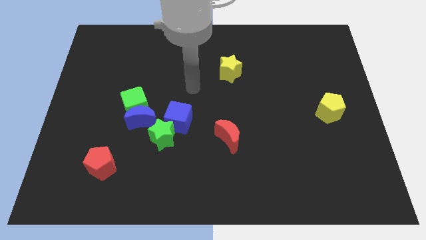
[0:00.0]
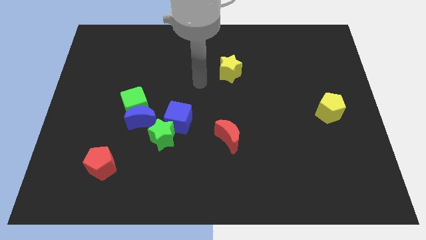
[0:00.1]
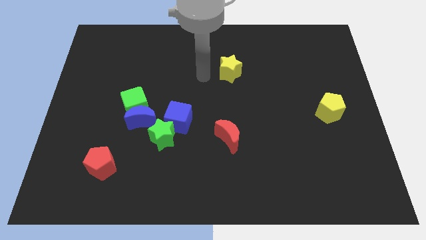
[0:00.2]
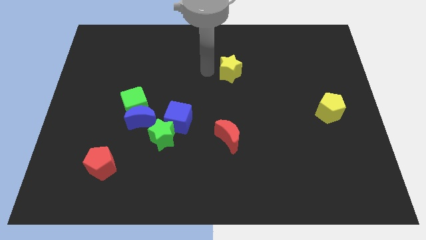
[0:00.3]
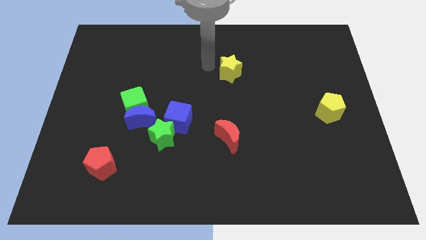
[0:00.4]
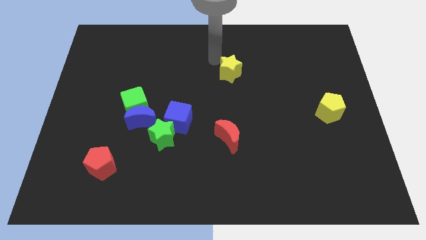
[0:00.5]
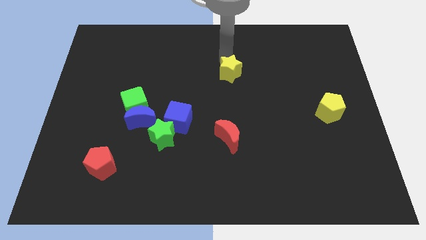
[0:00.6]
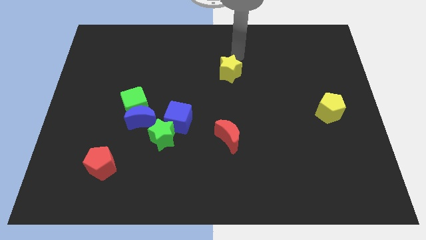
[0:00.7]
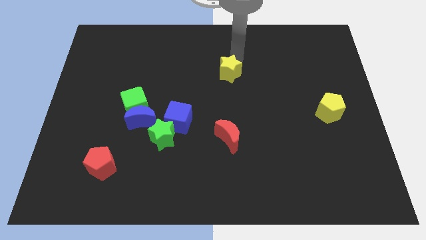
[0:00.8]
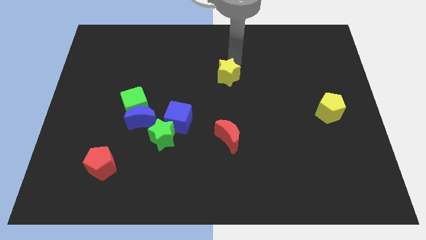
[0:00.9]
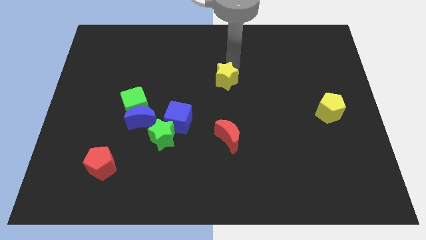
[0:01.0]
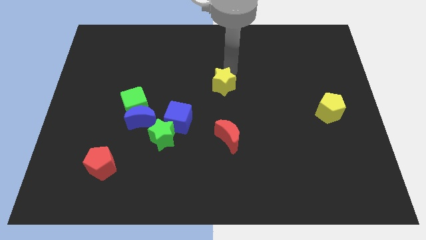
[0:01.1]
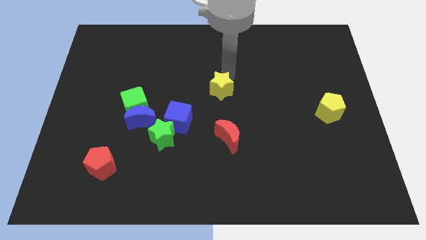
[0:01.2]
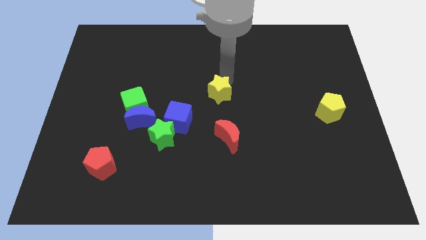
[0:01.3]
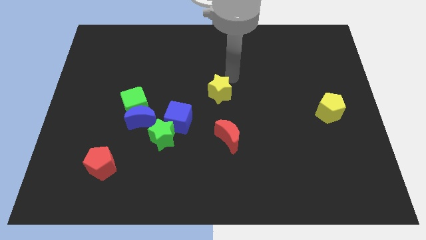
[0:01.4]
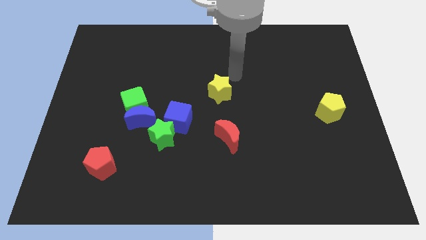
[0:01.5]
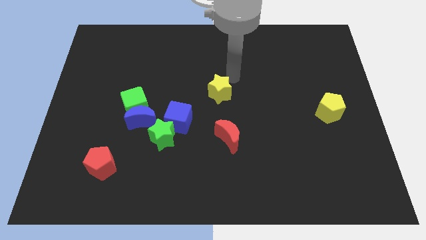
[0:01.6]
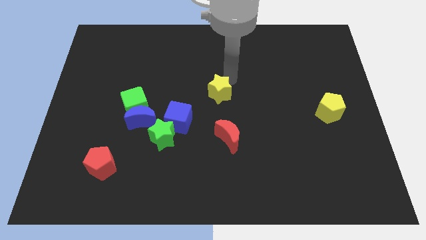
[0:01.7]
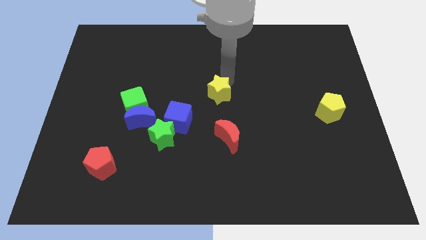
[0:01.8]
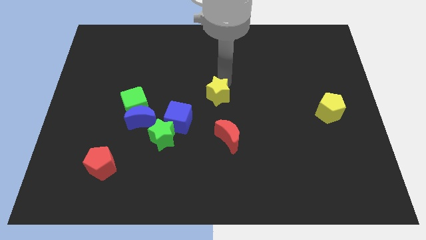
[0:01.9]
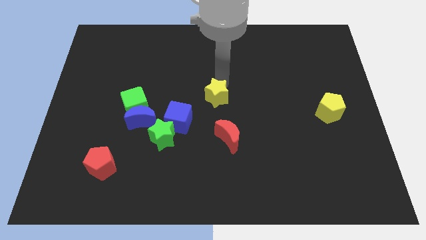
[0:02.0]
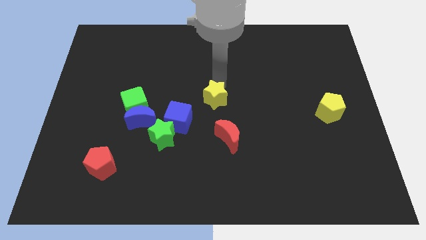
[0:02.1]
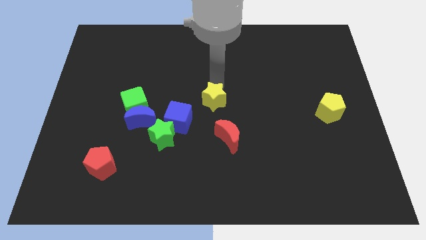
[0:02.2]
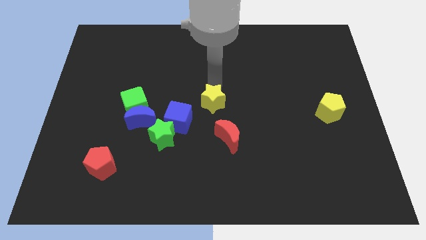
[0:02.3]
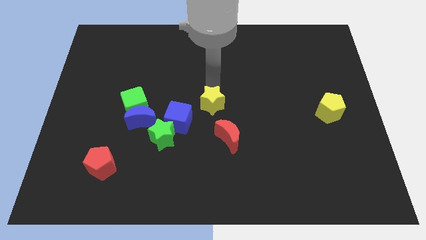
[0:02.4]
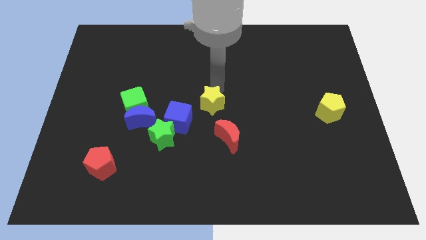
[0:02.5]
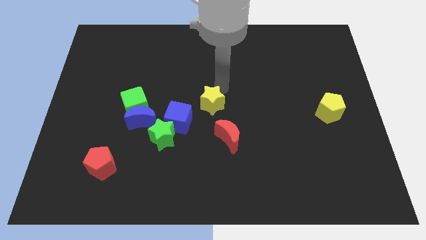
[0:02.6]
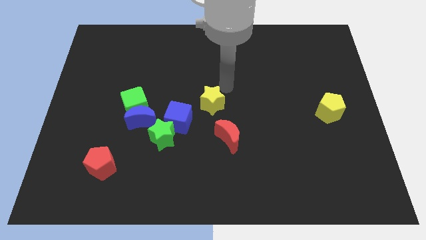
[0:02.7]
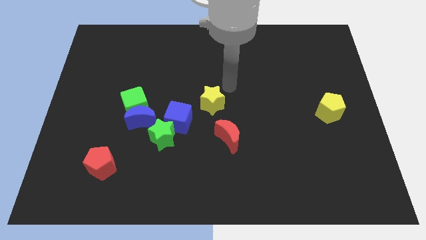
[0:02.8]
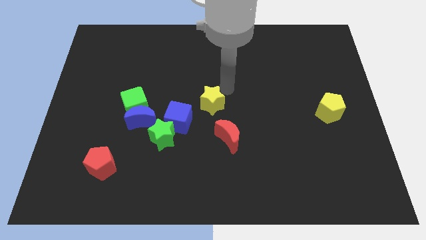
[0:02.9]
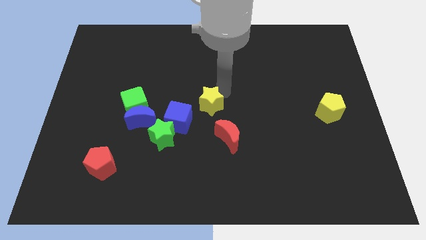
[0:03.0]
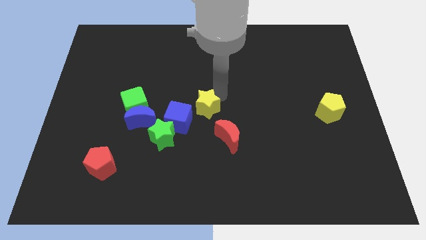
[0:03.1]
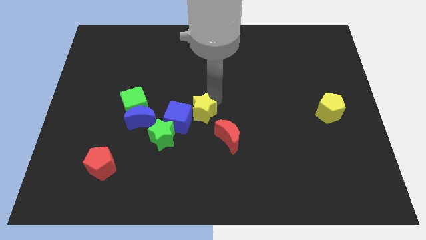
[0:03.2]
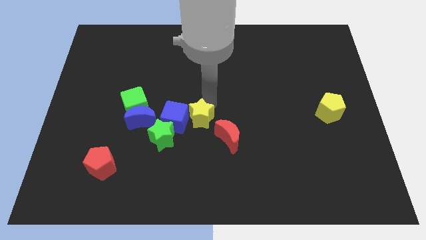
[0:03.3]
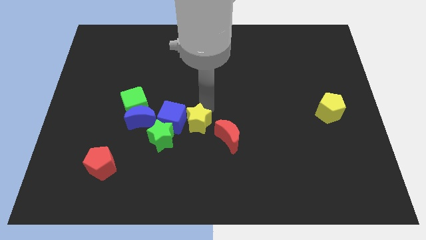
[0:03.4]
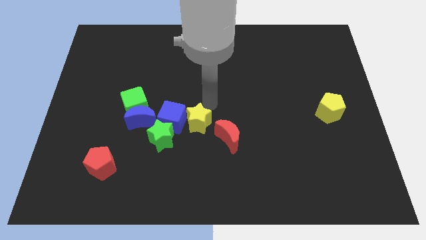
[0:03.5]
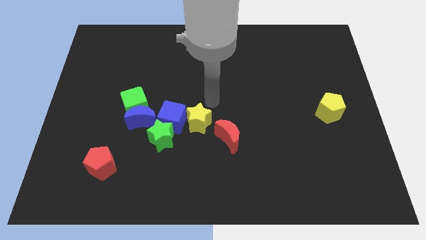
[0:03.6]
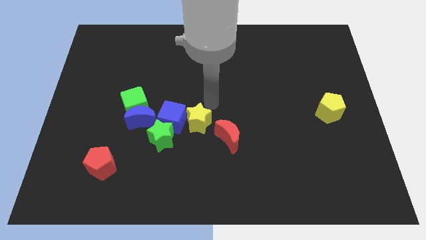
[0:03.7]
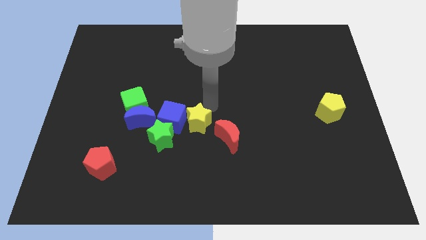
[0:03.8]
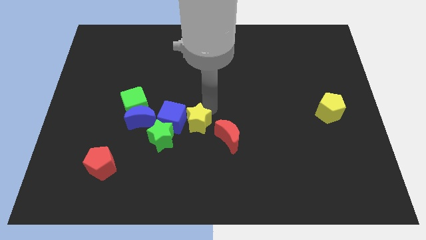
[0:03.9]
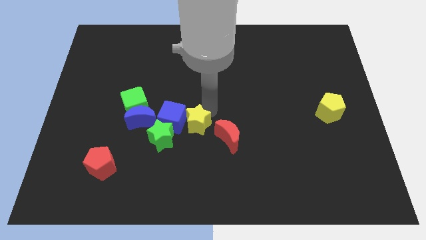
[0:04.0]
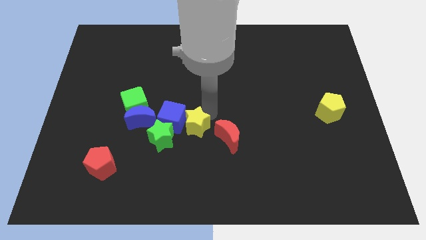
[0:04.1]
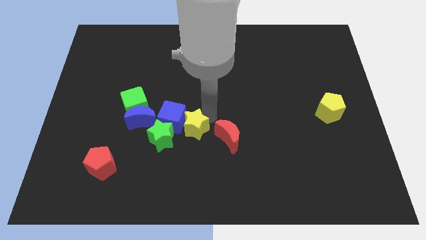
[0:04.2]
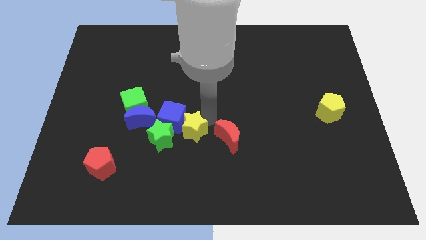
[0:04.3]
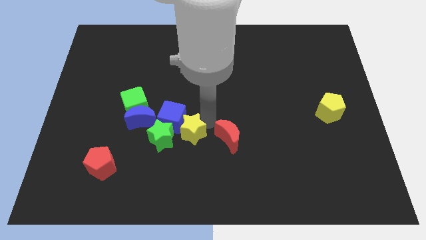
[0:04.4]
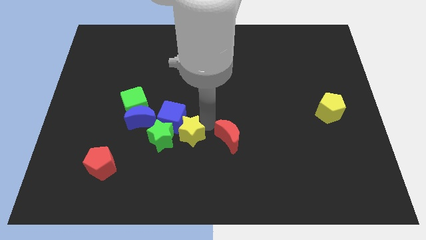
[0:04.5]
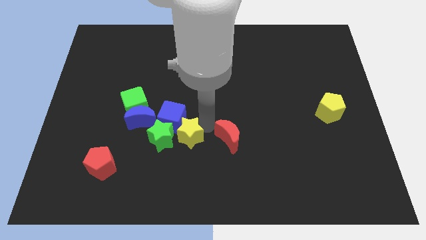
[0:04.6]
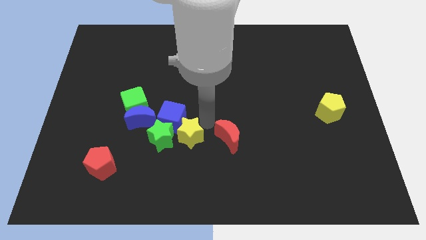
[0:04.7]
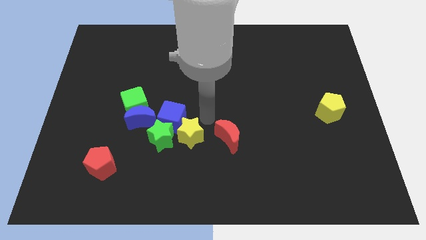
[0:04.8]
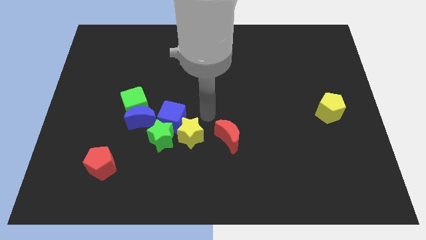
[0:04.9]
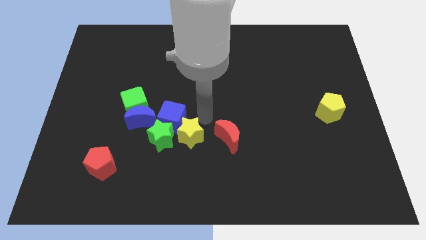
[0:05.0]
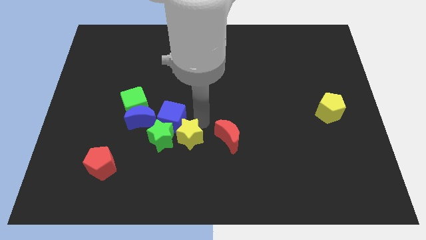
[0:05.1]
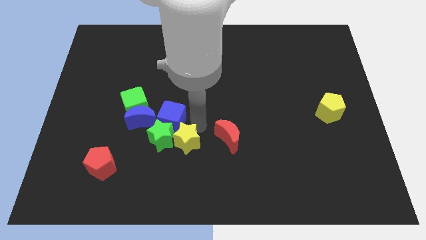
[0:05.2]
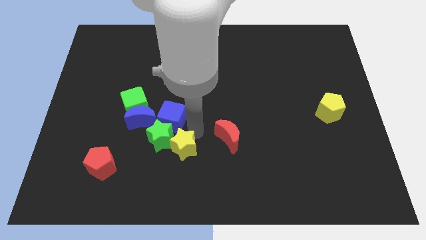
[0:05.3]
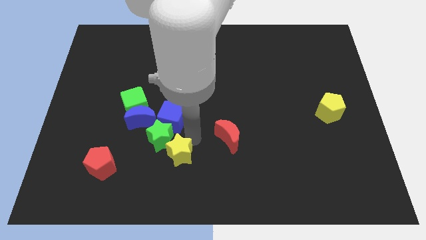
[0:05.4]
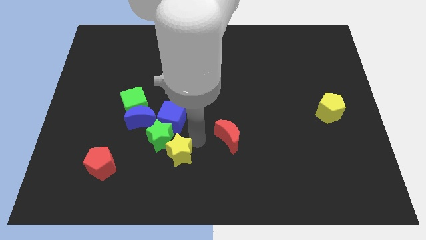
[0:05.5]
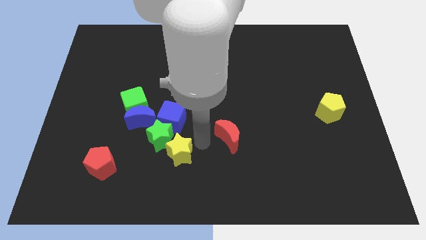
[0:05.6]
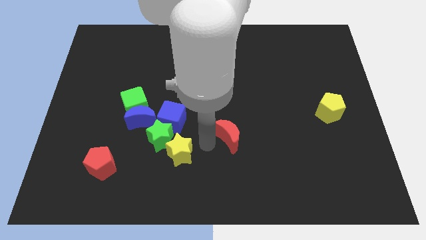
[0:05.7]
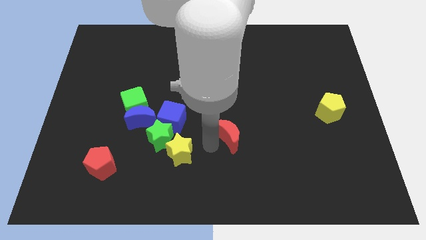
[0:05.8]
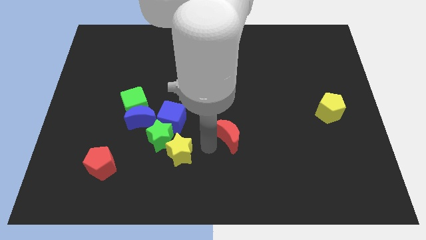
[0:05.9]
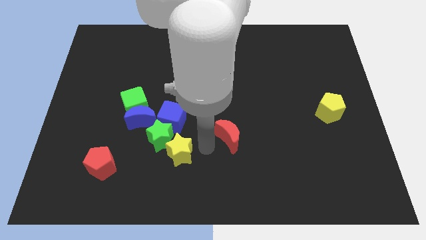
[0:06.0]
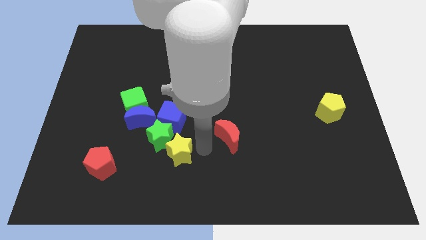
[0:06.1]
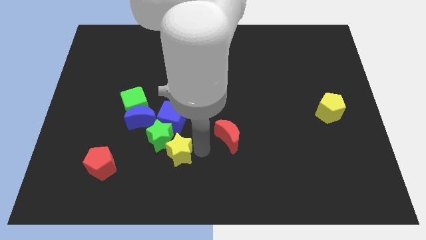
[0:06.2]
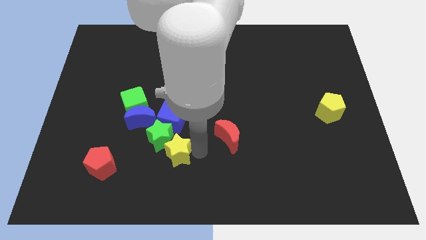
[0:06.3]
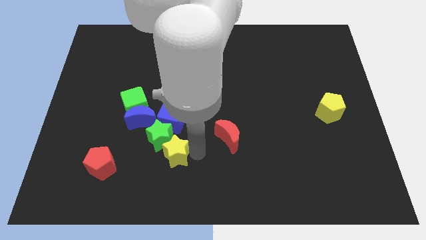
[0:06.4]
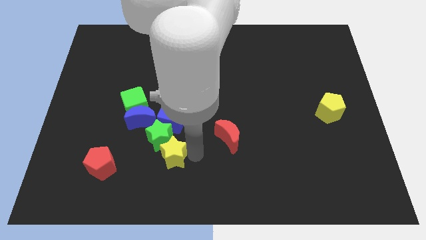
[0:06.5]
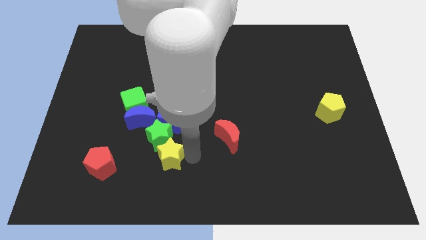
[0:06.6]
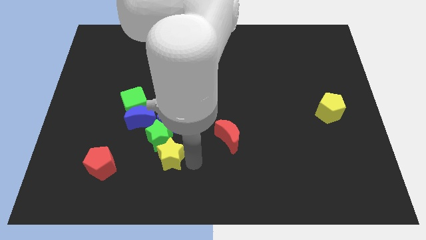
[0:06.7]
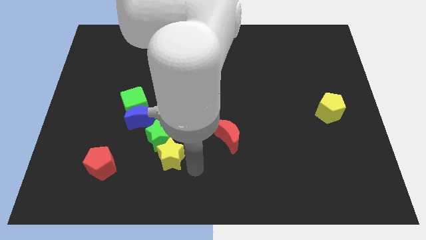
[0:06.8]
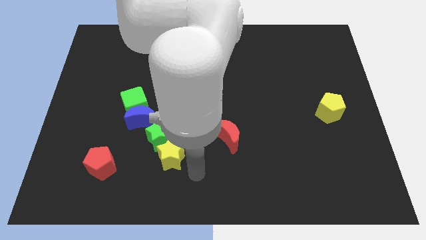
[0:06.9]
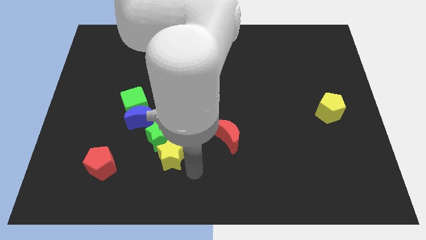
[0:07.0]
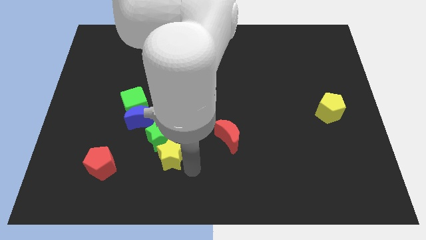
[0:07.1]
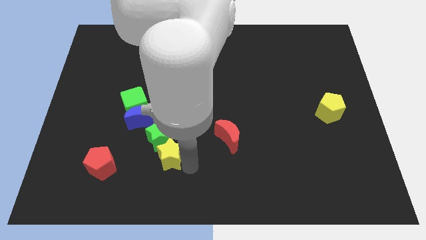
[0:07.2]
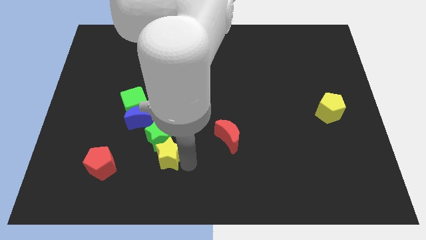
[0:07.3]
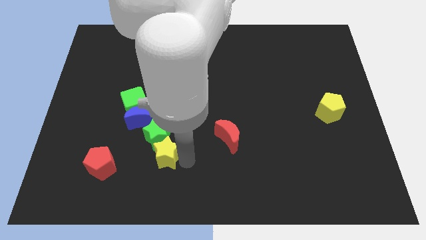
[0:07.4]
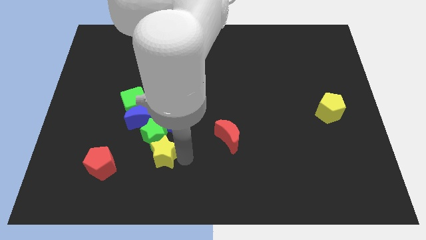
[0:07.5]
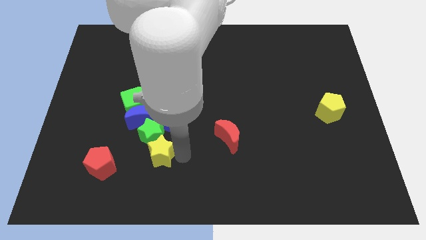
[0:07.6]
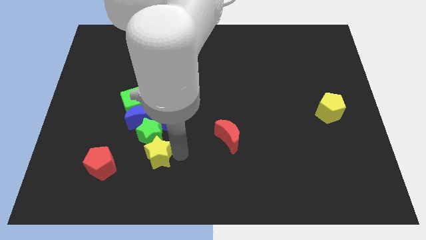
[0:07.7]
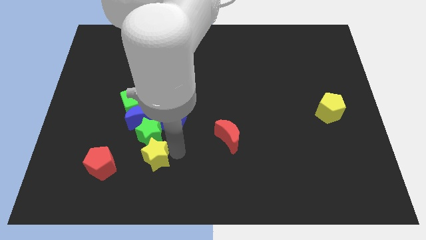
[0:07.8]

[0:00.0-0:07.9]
push the yellow star to the bottom left of the blue cube
